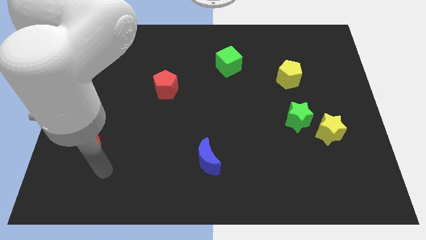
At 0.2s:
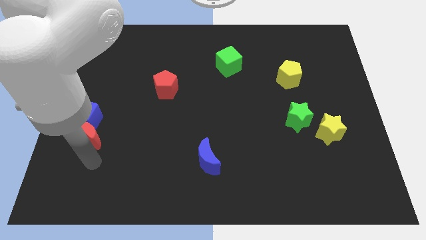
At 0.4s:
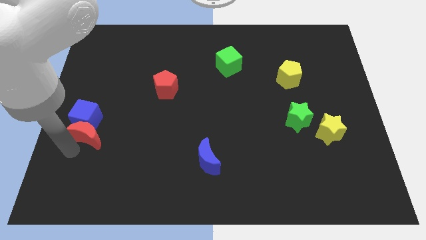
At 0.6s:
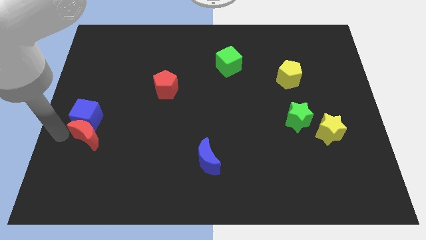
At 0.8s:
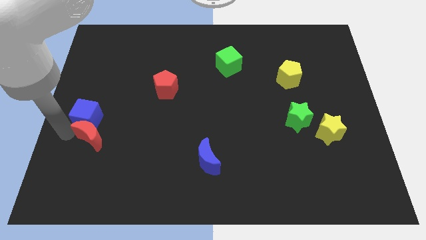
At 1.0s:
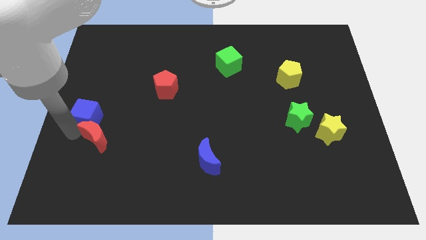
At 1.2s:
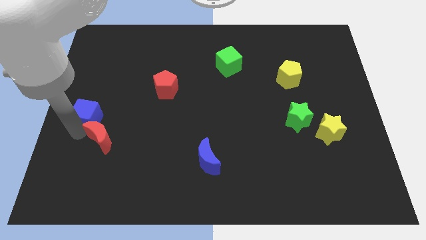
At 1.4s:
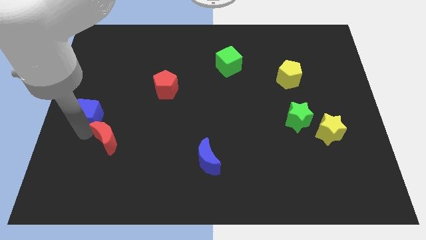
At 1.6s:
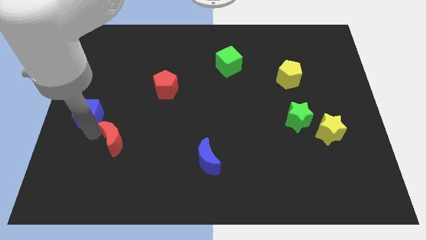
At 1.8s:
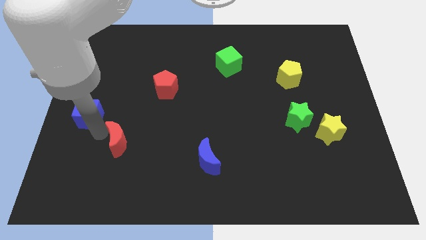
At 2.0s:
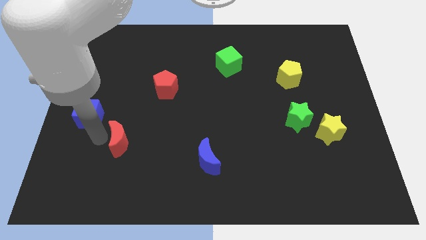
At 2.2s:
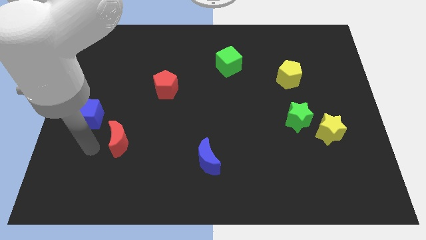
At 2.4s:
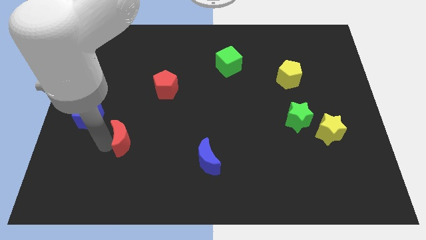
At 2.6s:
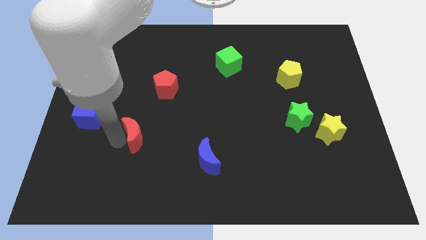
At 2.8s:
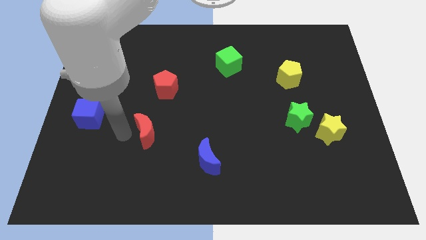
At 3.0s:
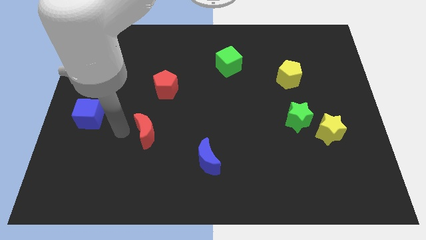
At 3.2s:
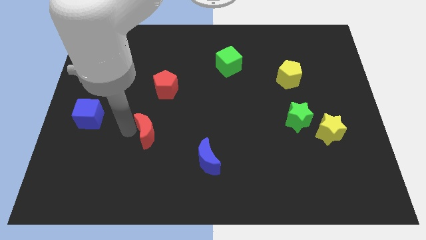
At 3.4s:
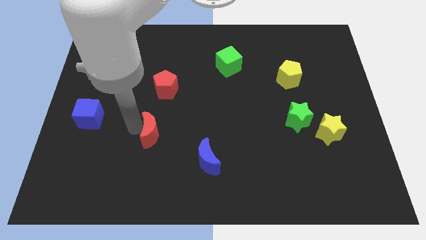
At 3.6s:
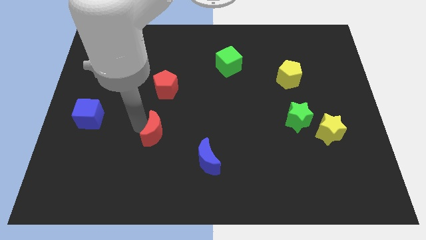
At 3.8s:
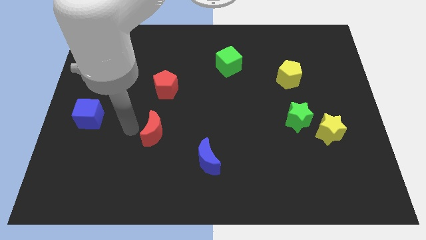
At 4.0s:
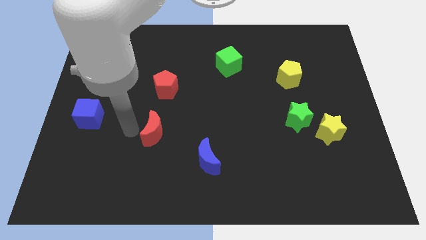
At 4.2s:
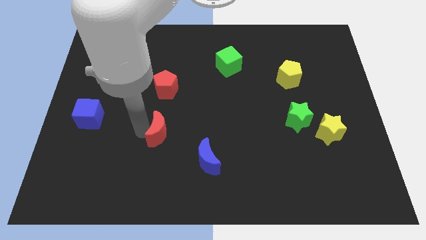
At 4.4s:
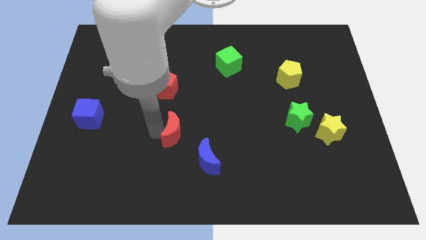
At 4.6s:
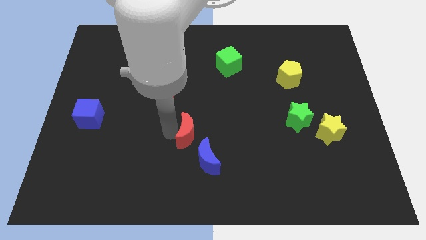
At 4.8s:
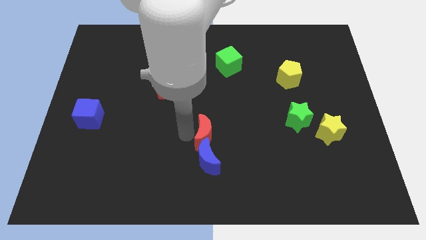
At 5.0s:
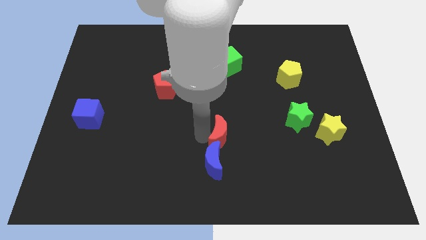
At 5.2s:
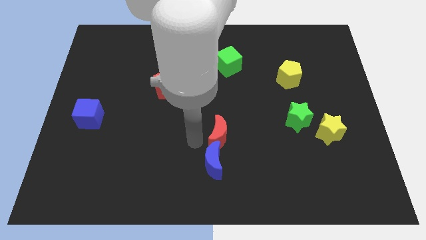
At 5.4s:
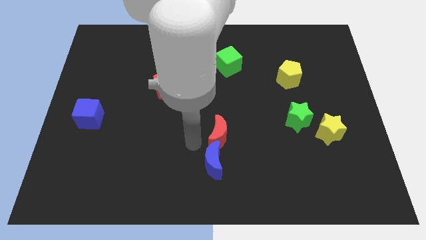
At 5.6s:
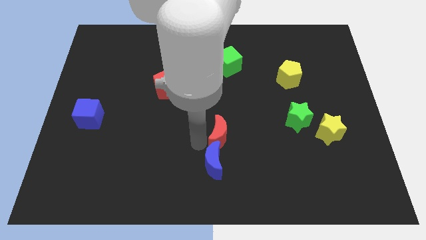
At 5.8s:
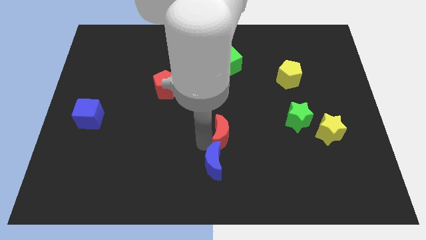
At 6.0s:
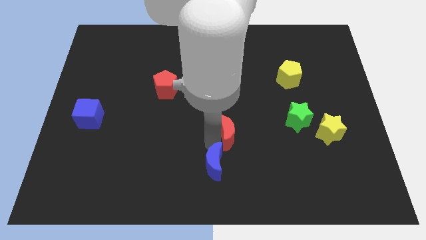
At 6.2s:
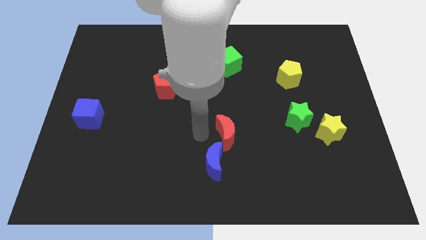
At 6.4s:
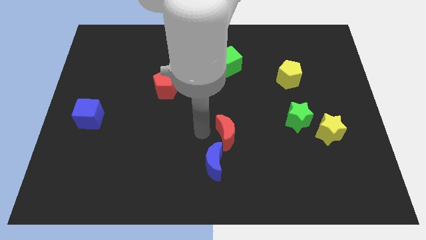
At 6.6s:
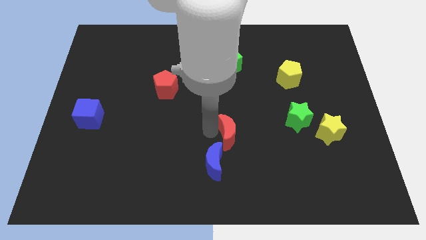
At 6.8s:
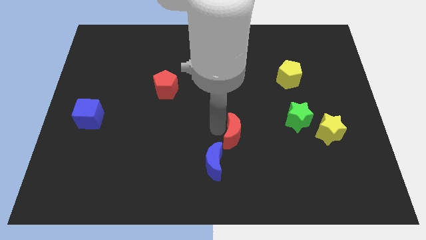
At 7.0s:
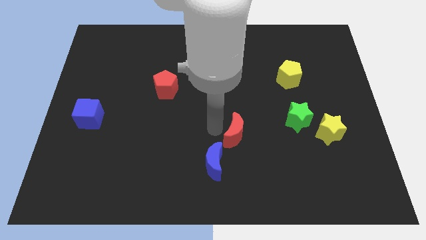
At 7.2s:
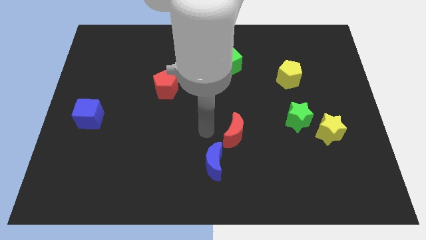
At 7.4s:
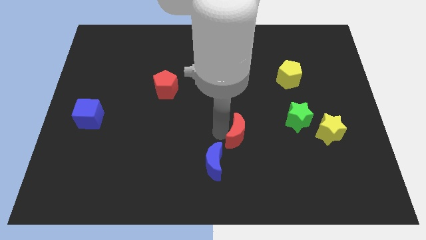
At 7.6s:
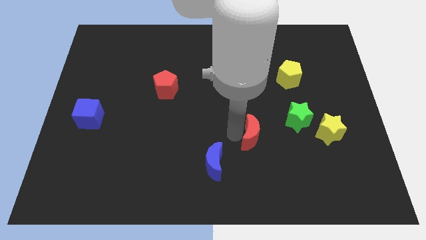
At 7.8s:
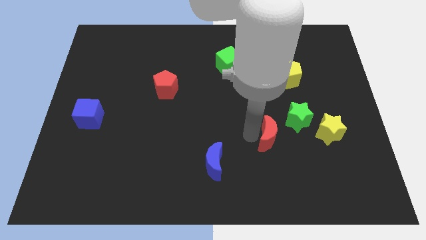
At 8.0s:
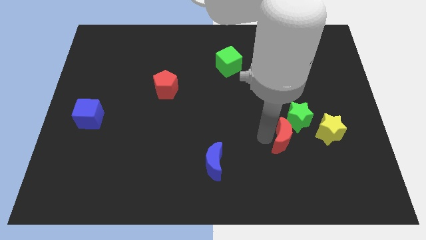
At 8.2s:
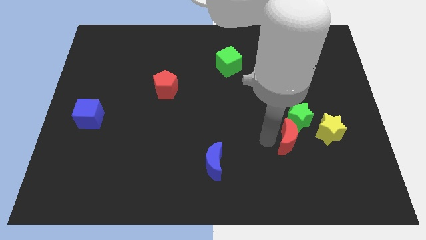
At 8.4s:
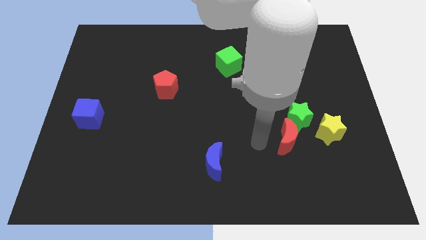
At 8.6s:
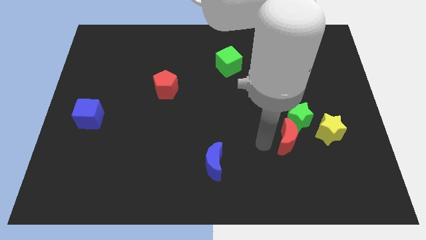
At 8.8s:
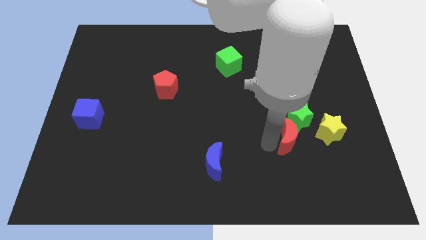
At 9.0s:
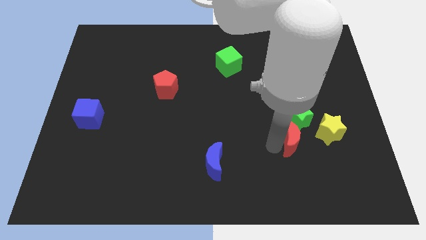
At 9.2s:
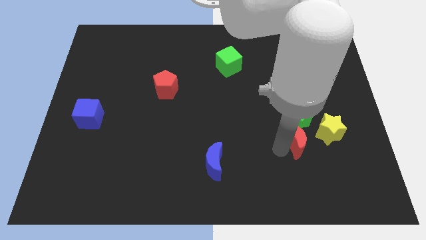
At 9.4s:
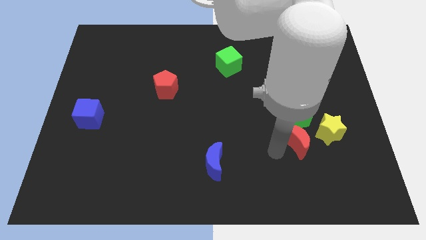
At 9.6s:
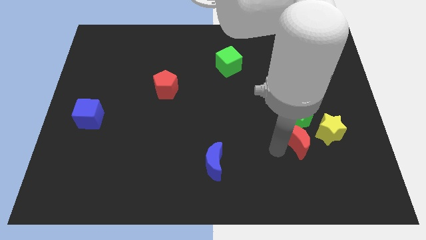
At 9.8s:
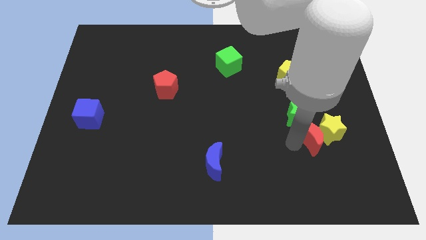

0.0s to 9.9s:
move the red moon towards the yellow star

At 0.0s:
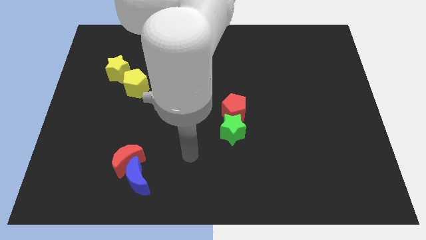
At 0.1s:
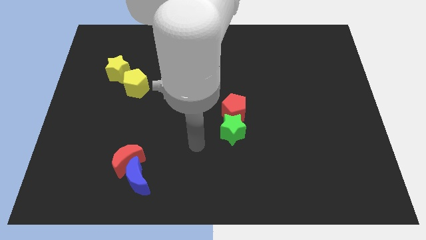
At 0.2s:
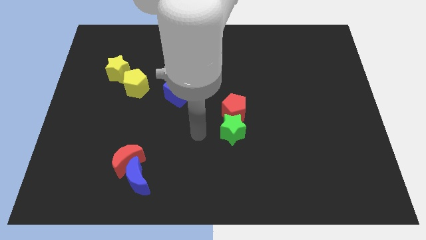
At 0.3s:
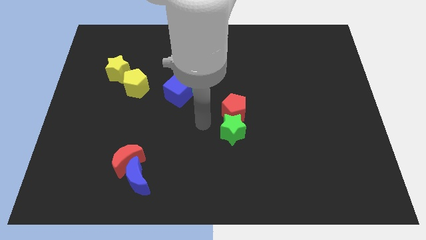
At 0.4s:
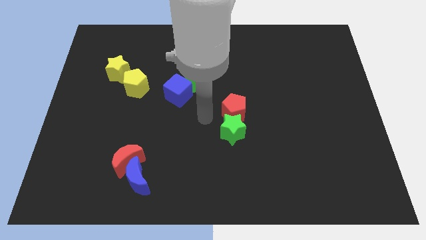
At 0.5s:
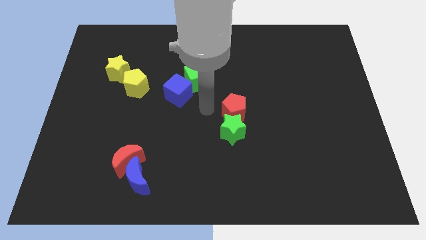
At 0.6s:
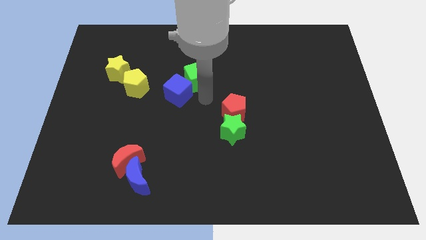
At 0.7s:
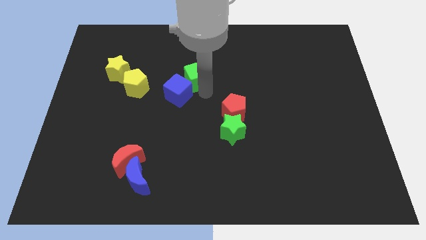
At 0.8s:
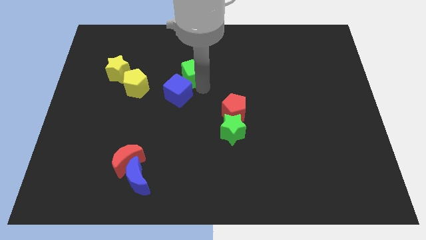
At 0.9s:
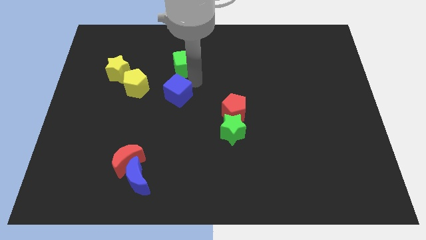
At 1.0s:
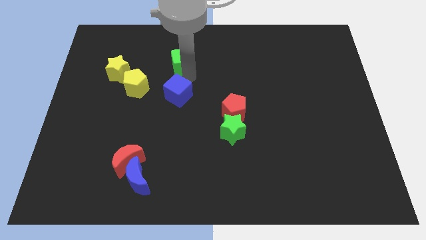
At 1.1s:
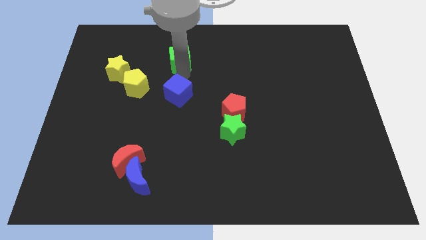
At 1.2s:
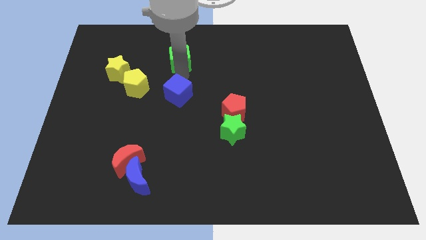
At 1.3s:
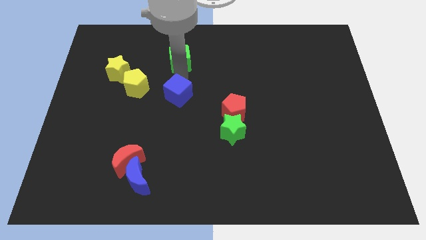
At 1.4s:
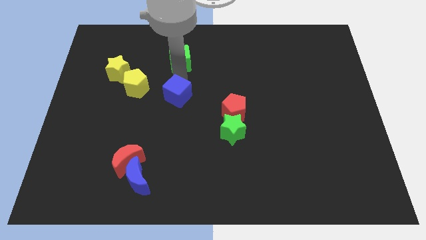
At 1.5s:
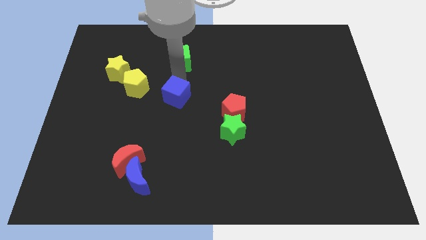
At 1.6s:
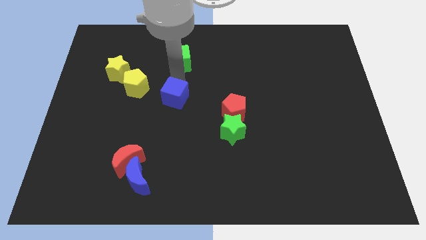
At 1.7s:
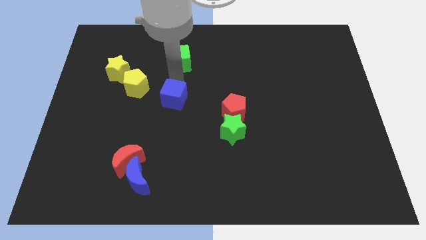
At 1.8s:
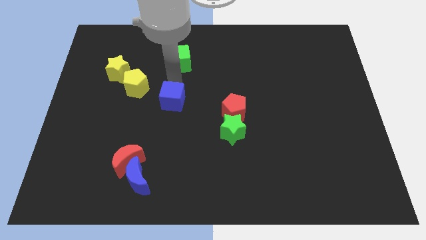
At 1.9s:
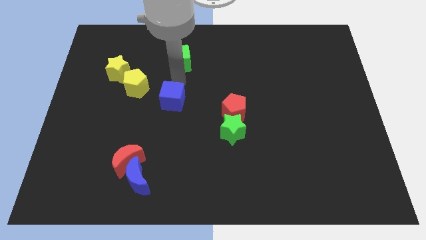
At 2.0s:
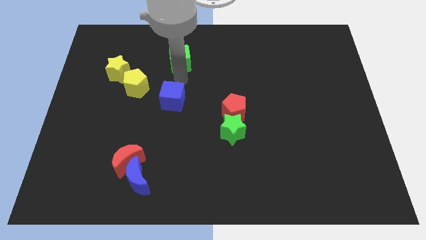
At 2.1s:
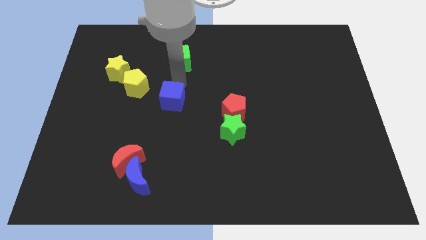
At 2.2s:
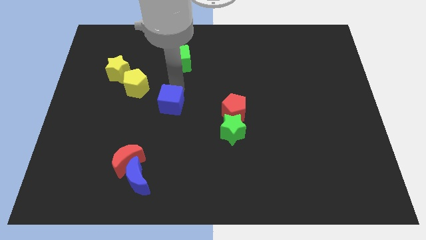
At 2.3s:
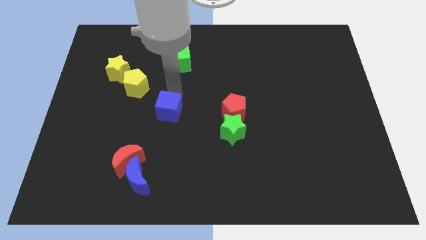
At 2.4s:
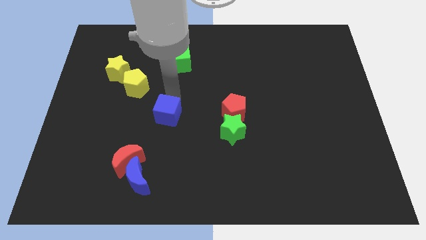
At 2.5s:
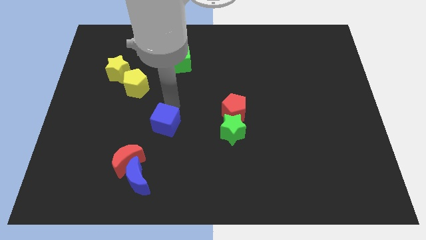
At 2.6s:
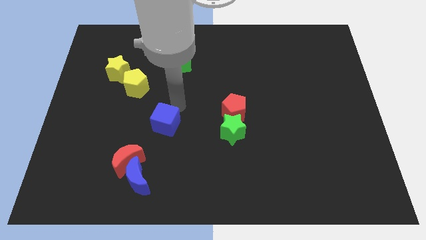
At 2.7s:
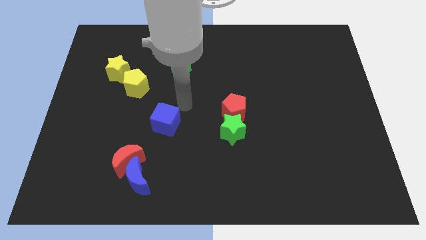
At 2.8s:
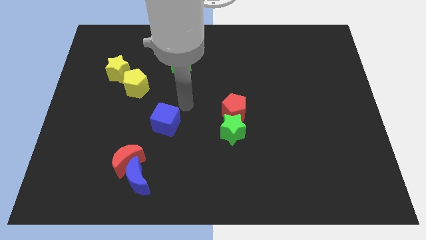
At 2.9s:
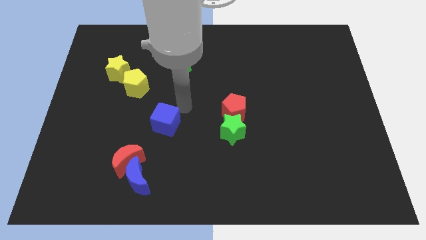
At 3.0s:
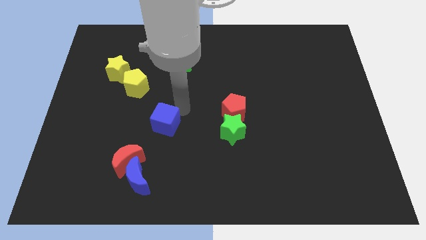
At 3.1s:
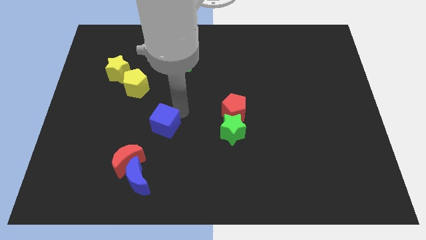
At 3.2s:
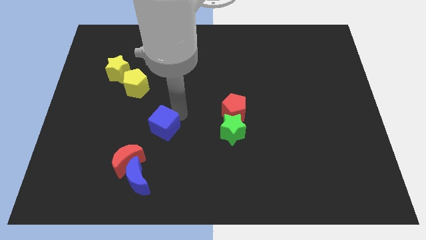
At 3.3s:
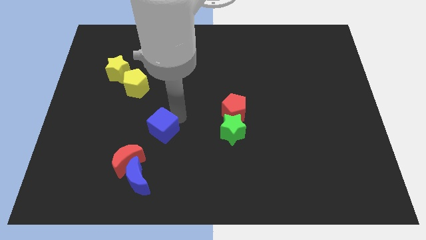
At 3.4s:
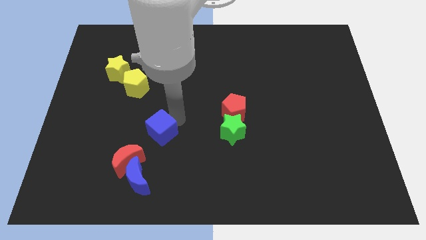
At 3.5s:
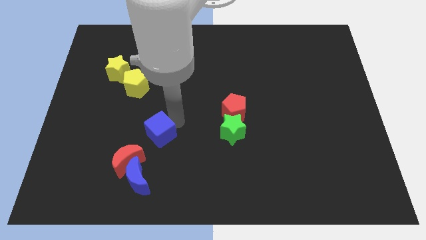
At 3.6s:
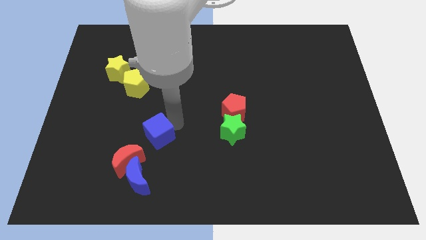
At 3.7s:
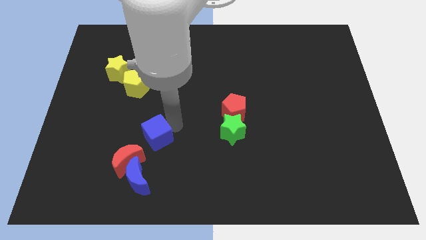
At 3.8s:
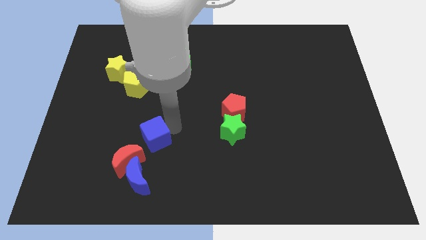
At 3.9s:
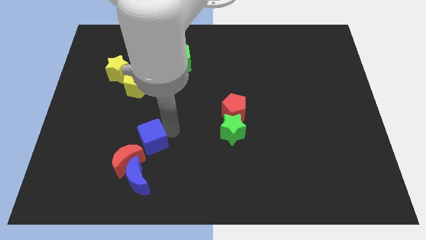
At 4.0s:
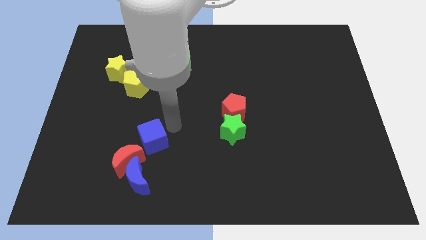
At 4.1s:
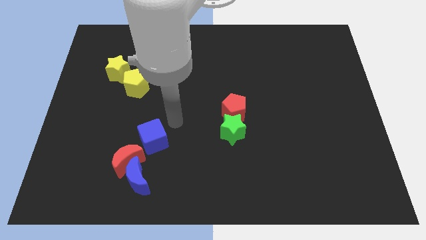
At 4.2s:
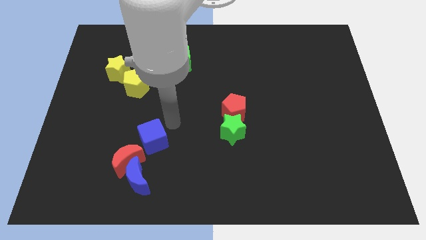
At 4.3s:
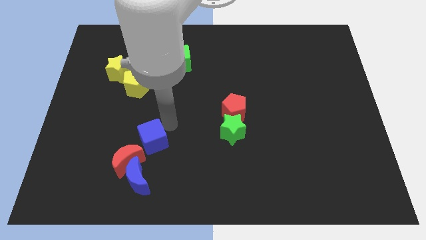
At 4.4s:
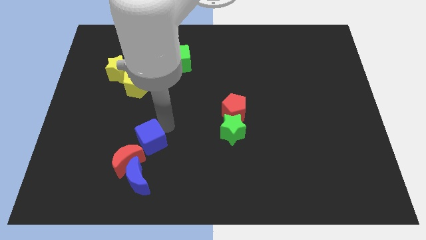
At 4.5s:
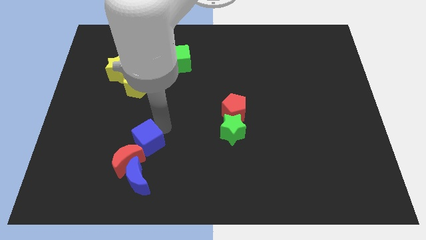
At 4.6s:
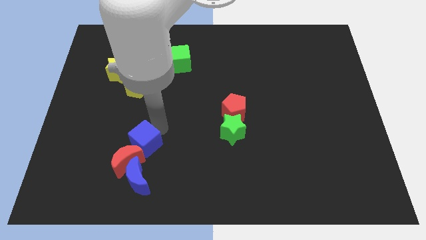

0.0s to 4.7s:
push the blue cube towards the red moon
